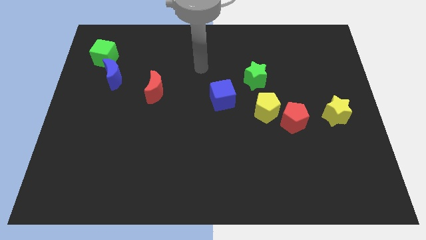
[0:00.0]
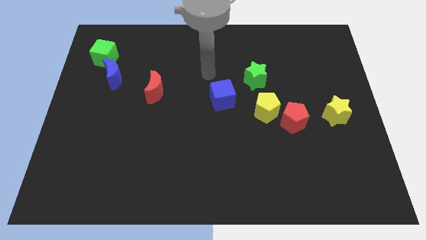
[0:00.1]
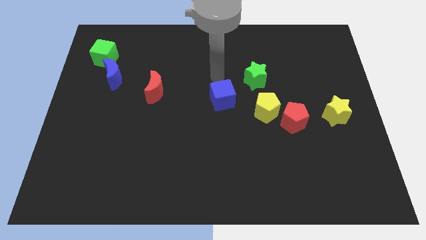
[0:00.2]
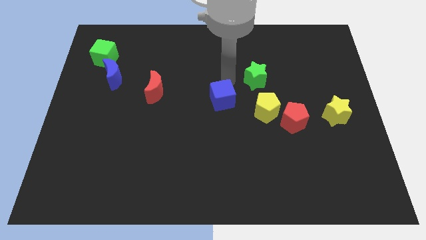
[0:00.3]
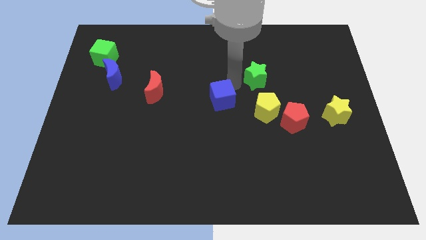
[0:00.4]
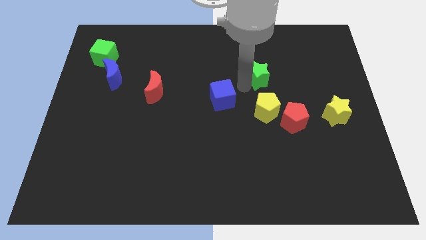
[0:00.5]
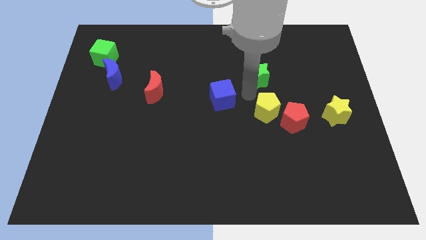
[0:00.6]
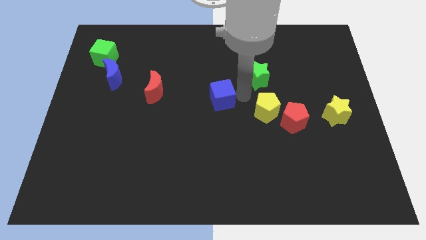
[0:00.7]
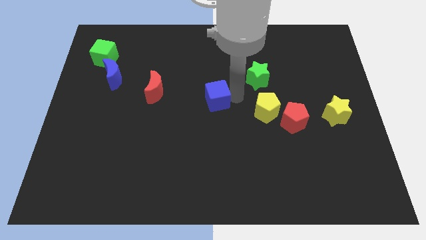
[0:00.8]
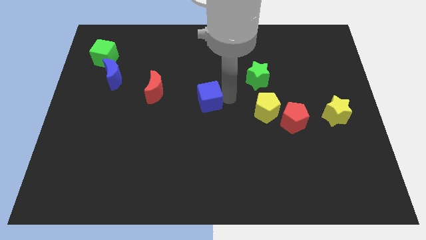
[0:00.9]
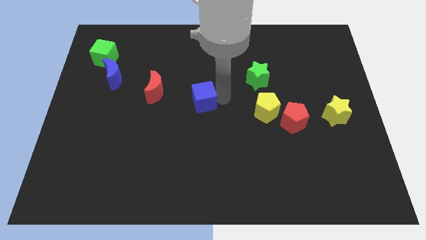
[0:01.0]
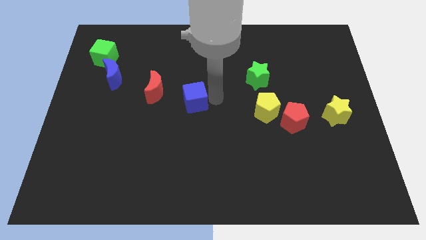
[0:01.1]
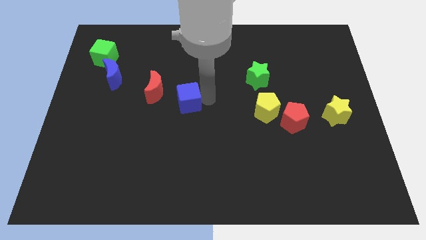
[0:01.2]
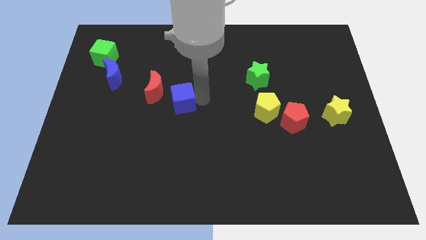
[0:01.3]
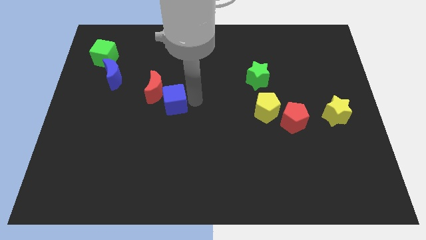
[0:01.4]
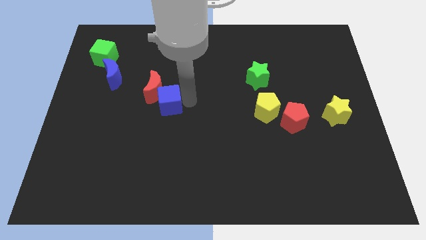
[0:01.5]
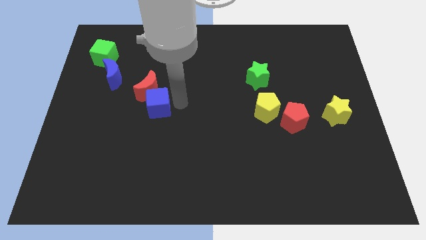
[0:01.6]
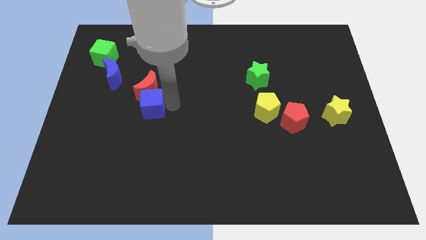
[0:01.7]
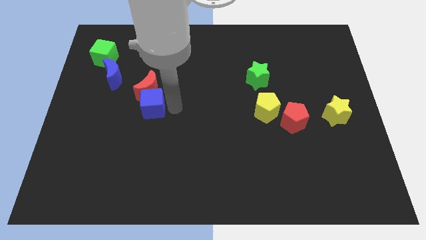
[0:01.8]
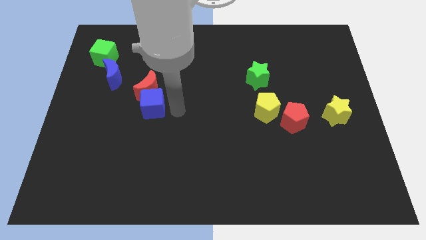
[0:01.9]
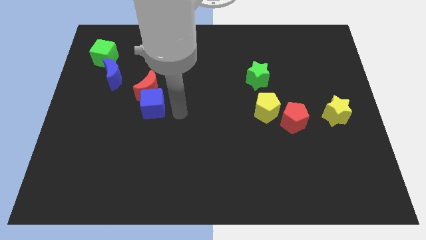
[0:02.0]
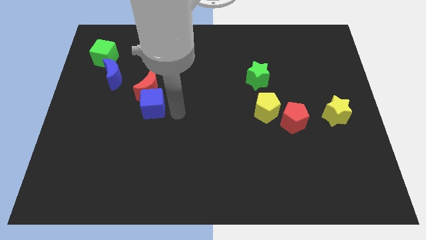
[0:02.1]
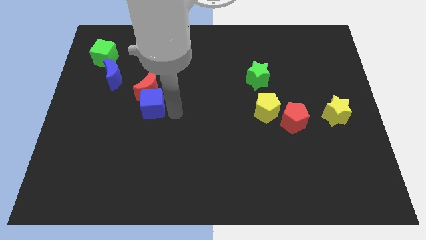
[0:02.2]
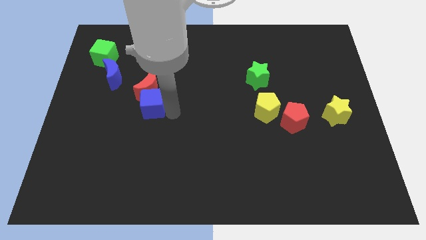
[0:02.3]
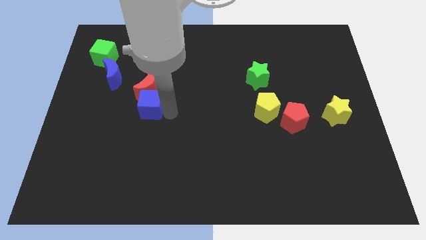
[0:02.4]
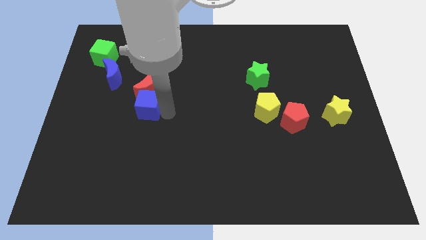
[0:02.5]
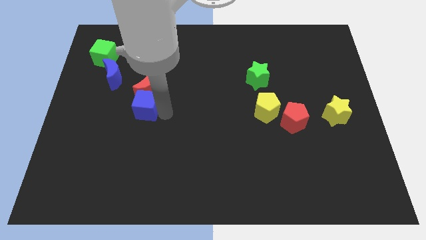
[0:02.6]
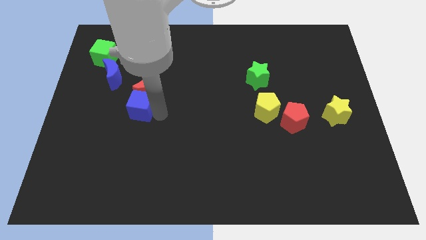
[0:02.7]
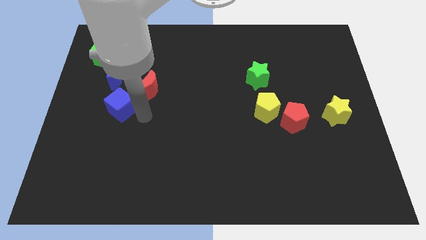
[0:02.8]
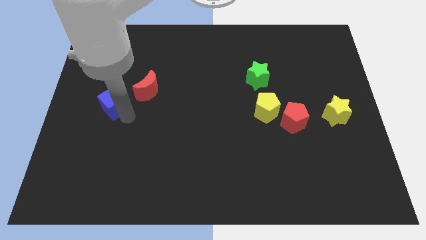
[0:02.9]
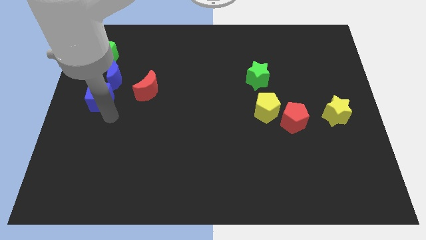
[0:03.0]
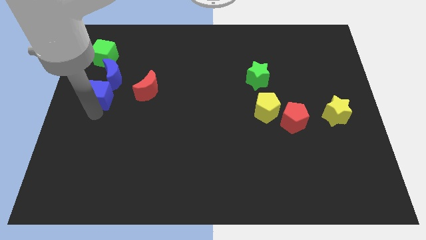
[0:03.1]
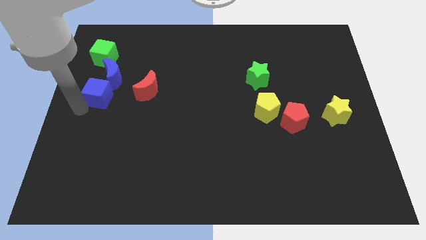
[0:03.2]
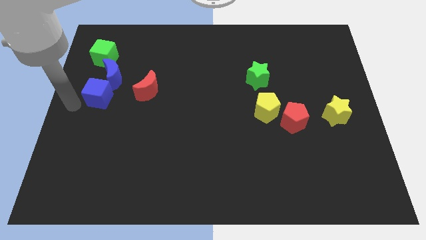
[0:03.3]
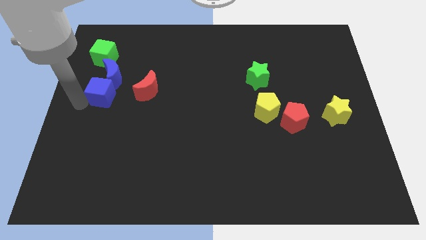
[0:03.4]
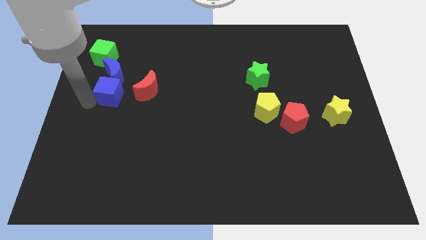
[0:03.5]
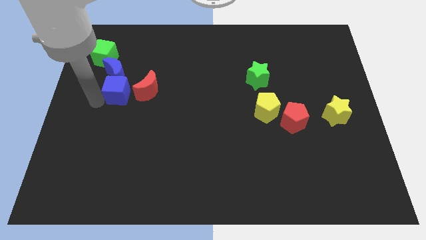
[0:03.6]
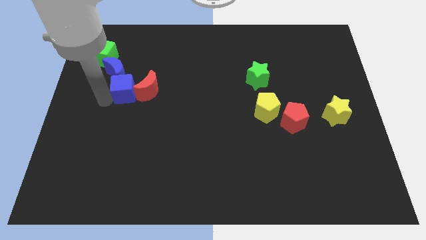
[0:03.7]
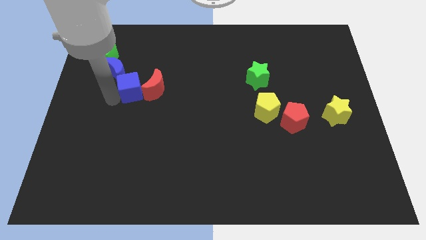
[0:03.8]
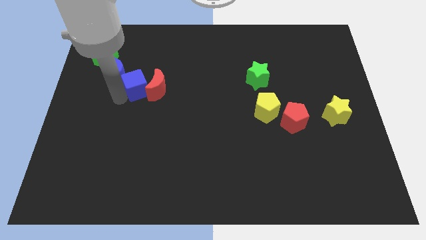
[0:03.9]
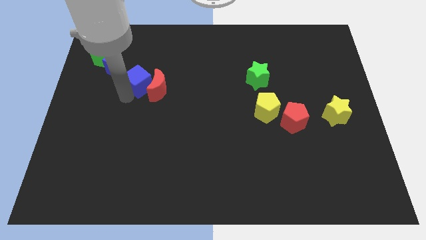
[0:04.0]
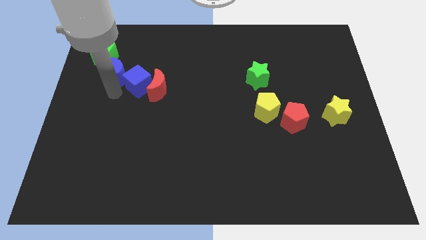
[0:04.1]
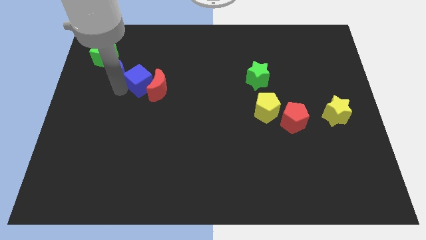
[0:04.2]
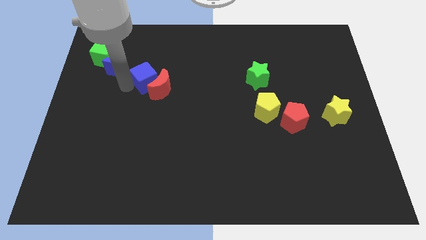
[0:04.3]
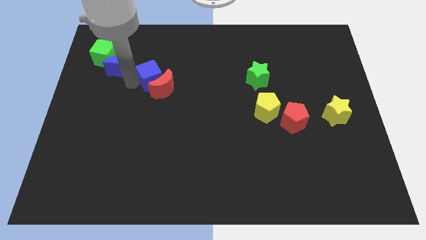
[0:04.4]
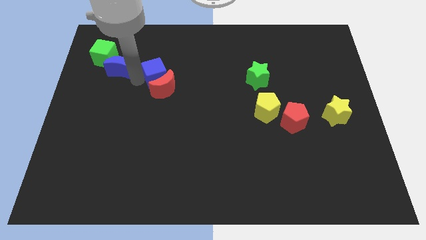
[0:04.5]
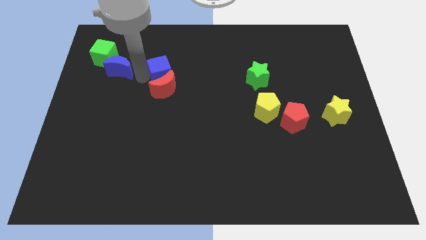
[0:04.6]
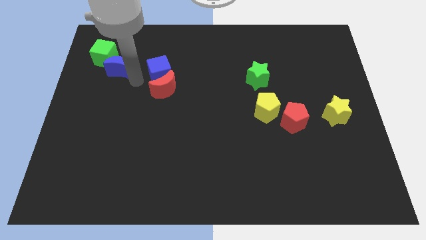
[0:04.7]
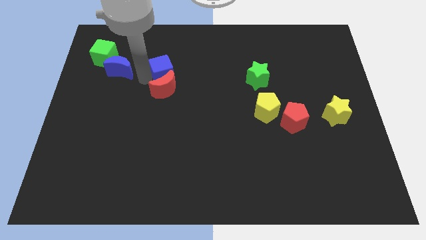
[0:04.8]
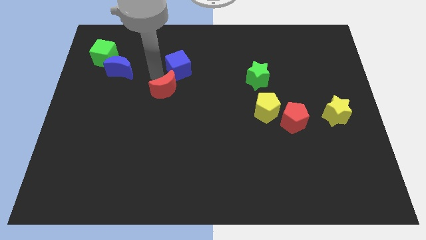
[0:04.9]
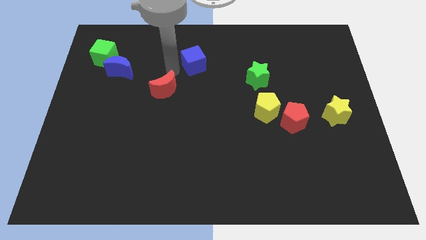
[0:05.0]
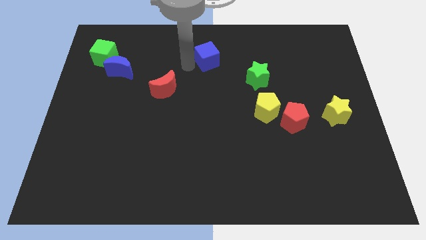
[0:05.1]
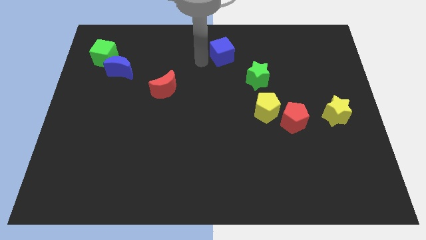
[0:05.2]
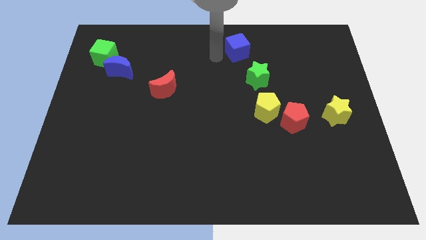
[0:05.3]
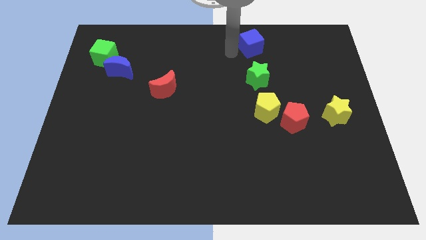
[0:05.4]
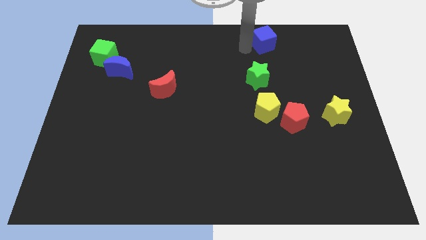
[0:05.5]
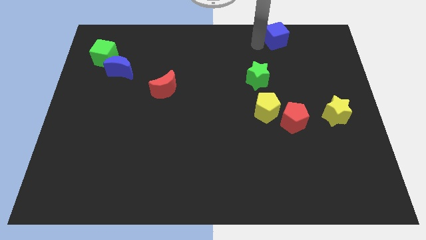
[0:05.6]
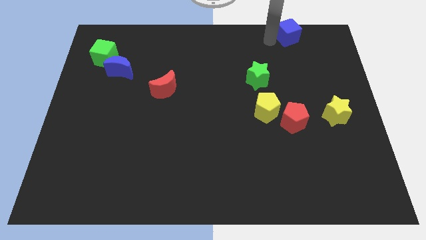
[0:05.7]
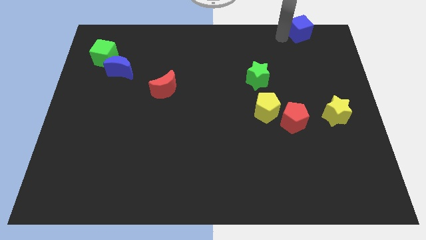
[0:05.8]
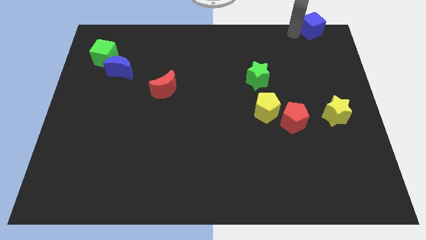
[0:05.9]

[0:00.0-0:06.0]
push the blue cube to the top right of the board

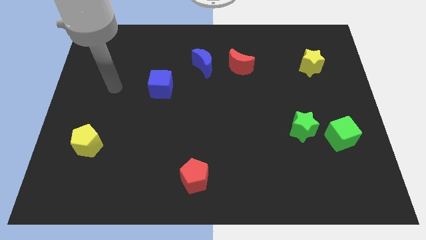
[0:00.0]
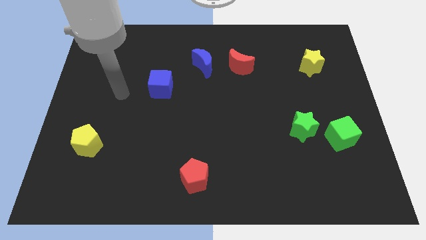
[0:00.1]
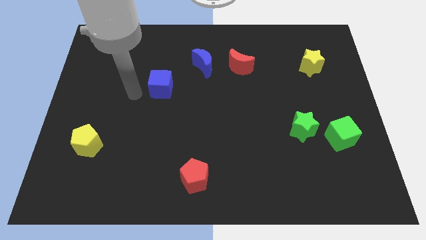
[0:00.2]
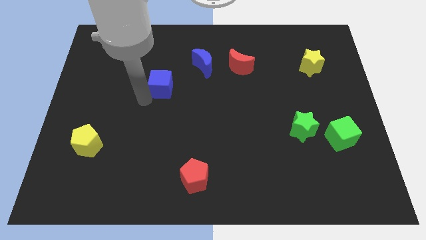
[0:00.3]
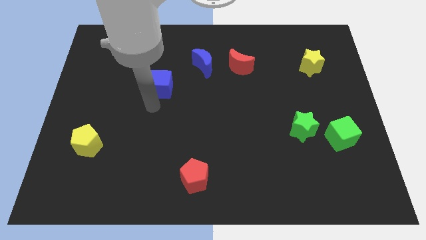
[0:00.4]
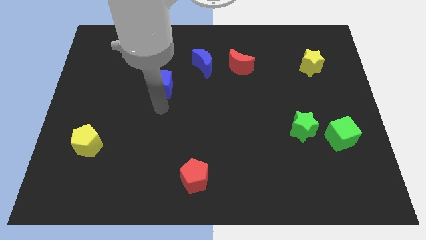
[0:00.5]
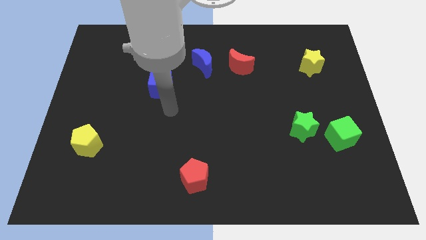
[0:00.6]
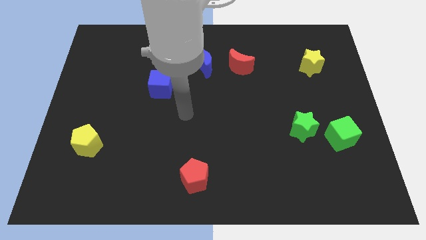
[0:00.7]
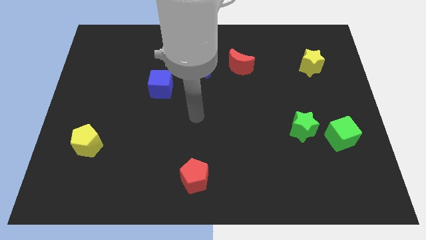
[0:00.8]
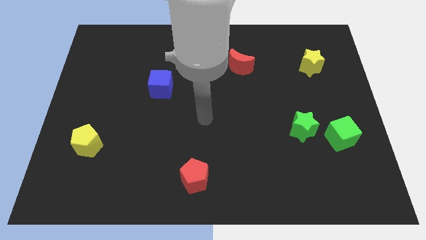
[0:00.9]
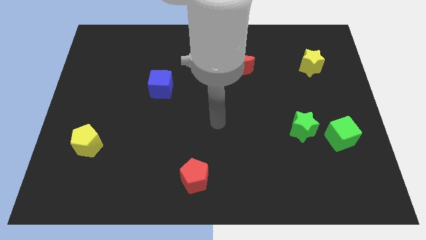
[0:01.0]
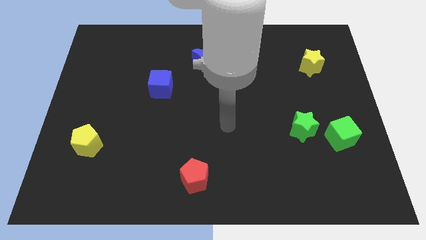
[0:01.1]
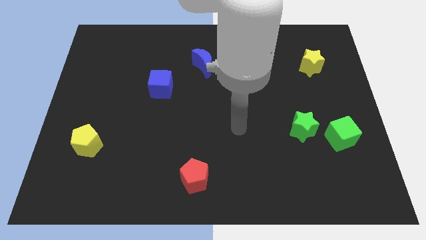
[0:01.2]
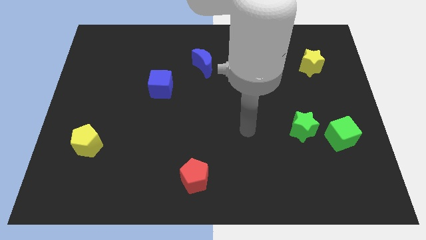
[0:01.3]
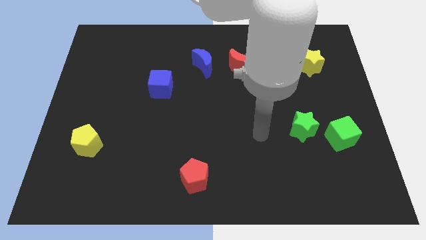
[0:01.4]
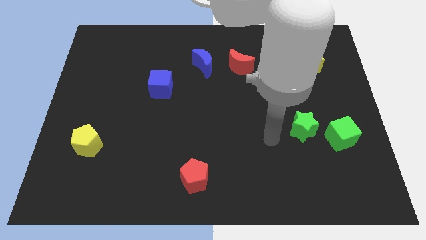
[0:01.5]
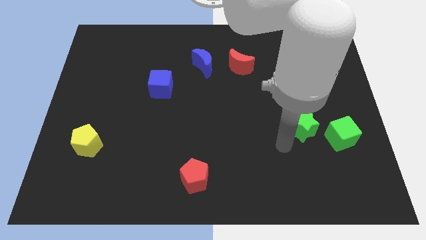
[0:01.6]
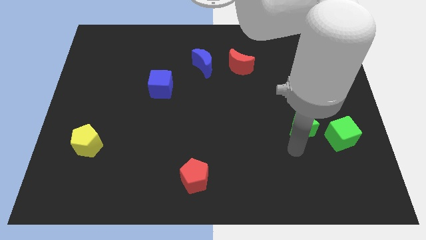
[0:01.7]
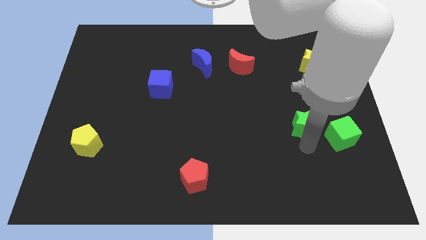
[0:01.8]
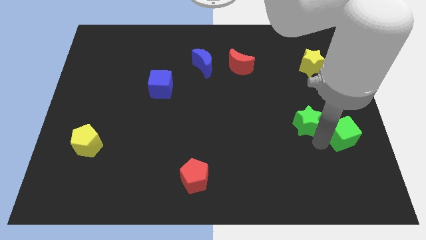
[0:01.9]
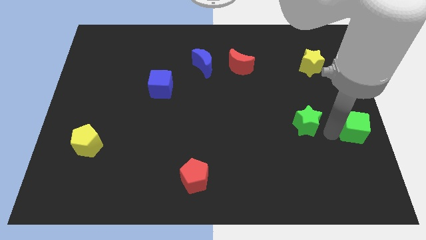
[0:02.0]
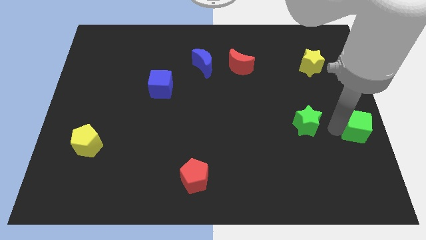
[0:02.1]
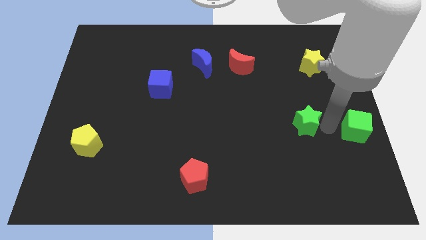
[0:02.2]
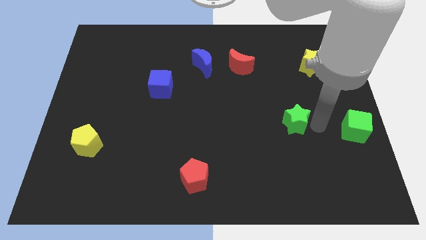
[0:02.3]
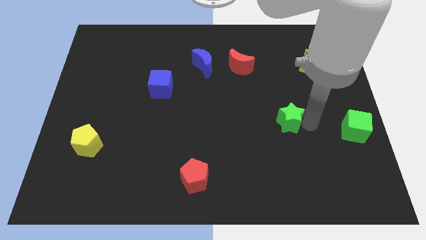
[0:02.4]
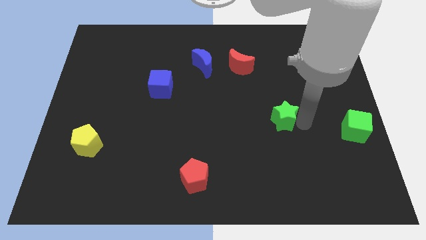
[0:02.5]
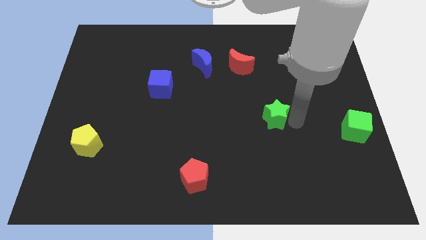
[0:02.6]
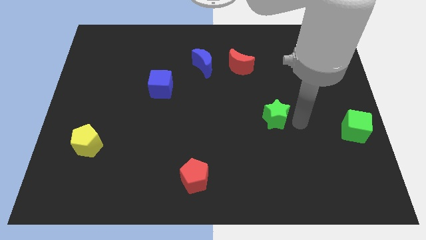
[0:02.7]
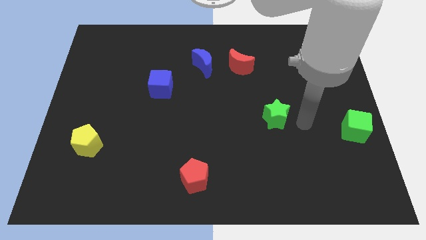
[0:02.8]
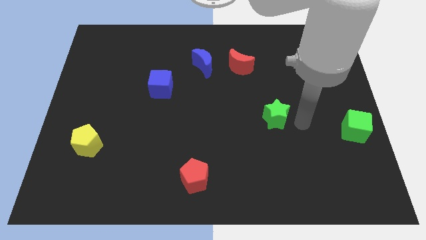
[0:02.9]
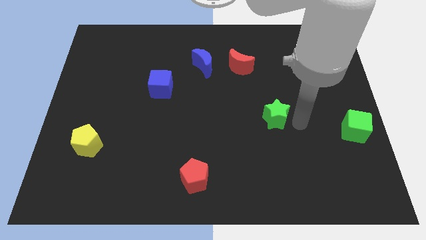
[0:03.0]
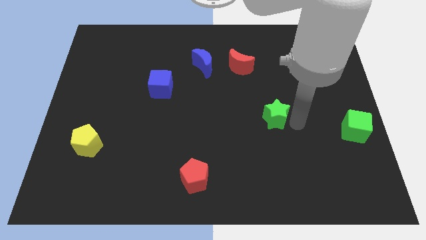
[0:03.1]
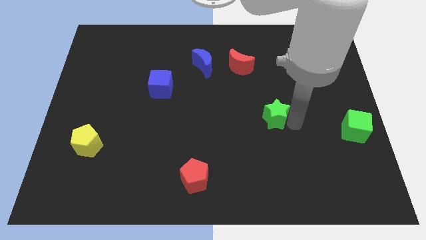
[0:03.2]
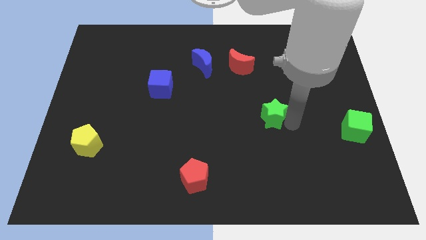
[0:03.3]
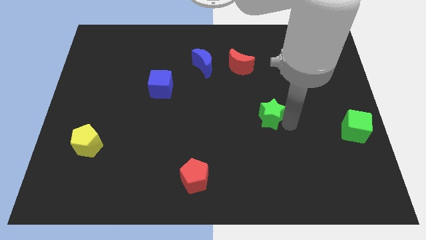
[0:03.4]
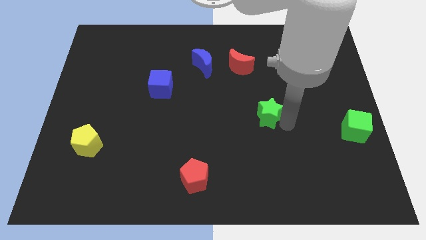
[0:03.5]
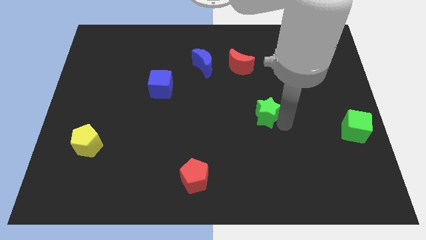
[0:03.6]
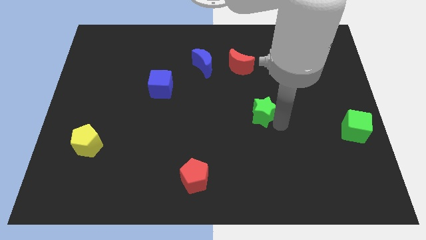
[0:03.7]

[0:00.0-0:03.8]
push the green star to the center
